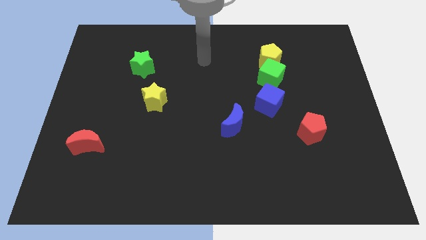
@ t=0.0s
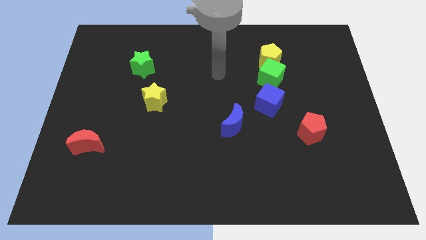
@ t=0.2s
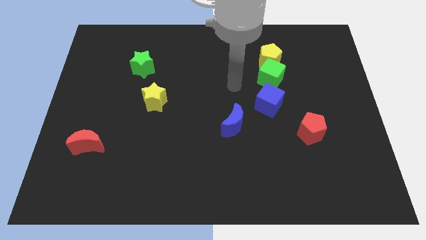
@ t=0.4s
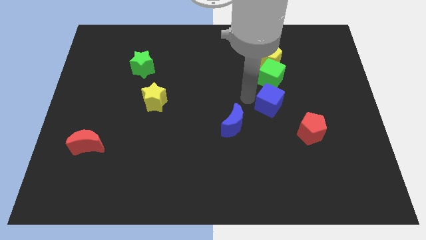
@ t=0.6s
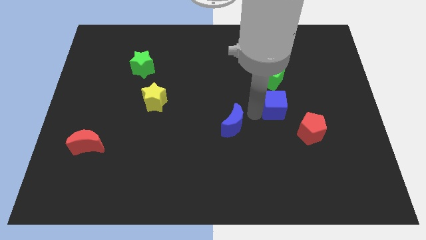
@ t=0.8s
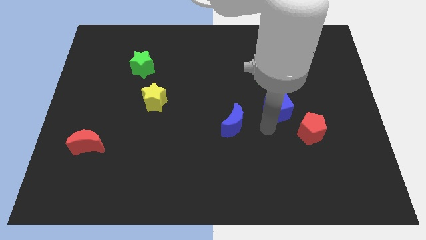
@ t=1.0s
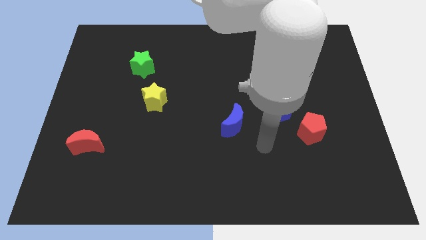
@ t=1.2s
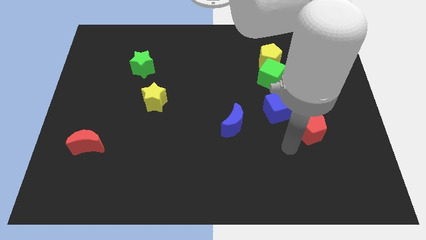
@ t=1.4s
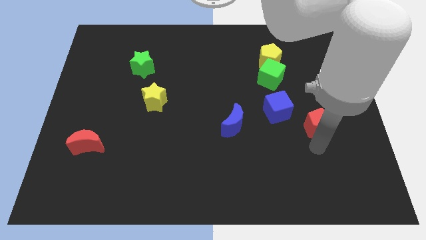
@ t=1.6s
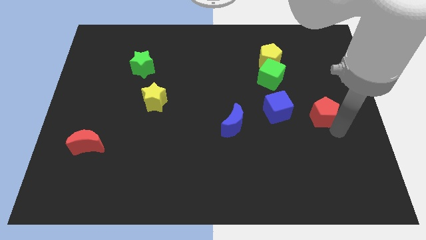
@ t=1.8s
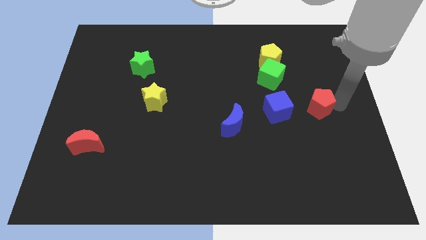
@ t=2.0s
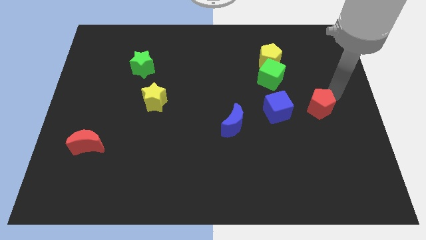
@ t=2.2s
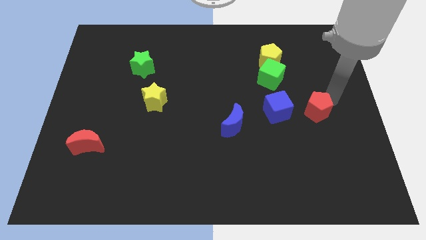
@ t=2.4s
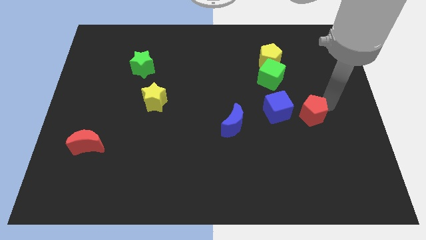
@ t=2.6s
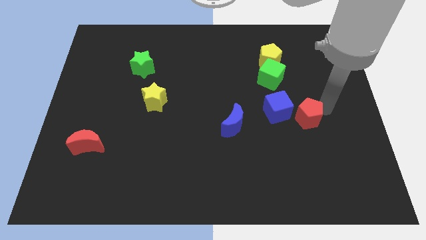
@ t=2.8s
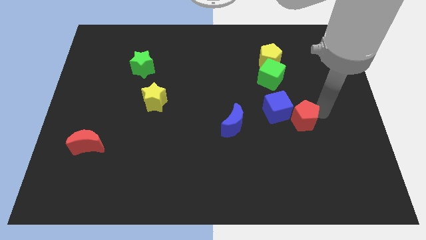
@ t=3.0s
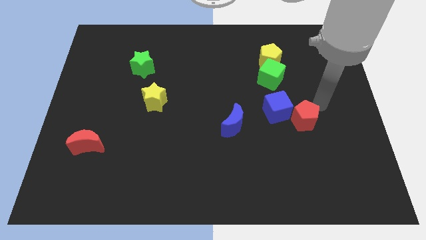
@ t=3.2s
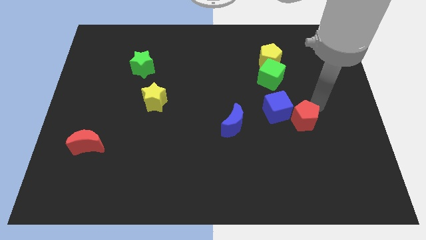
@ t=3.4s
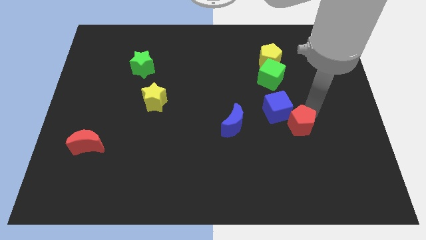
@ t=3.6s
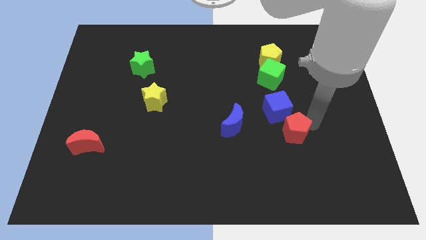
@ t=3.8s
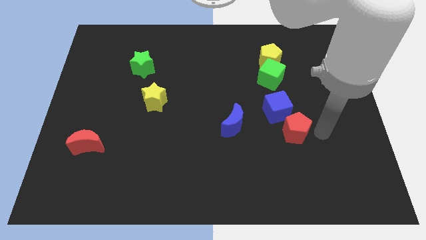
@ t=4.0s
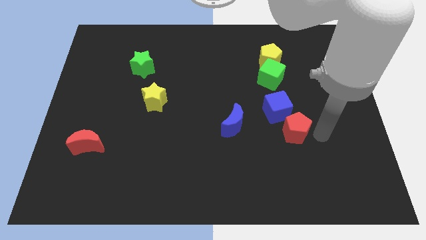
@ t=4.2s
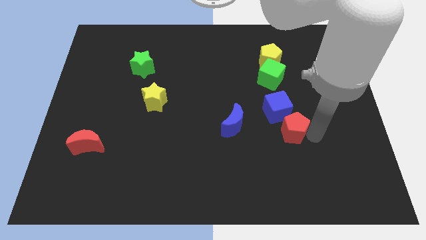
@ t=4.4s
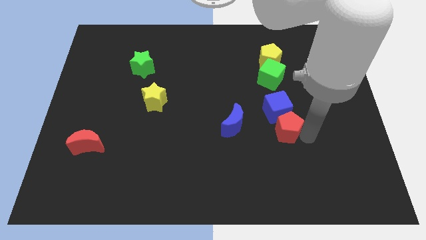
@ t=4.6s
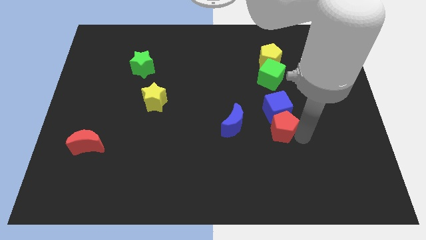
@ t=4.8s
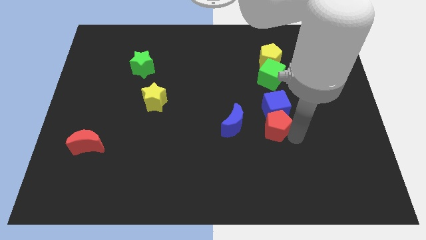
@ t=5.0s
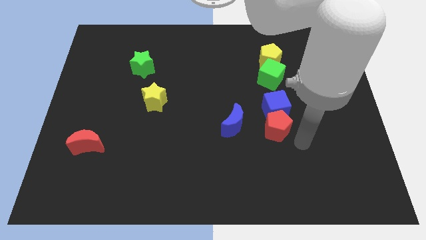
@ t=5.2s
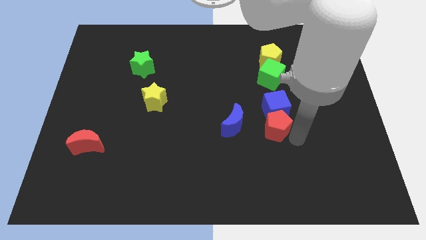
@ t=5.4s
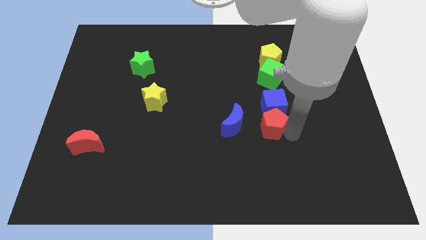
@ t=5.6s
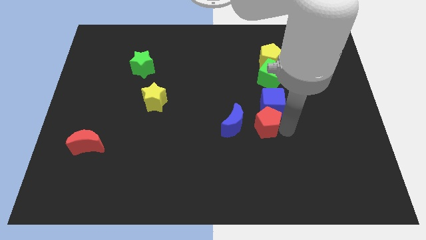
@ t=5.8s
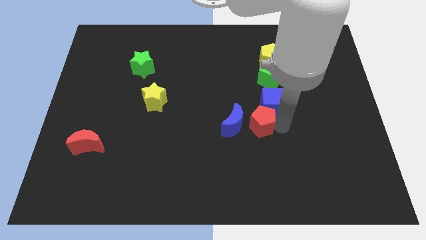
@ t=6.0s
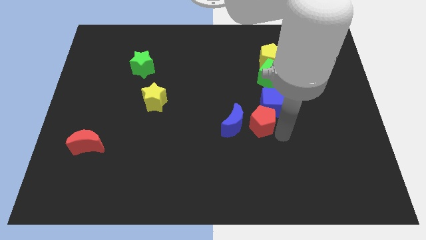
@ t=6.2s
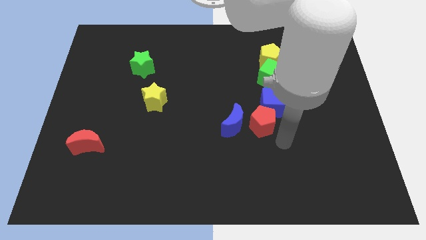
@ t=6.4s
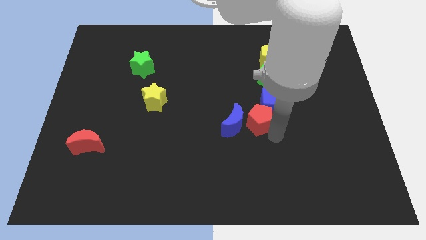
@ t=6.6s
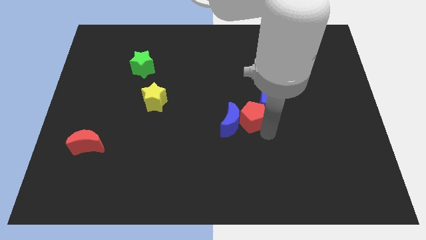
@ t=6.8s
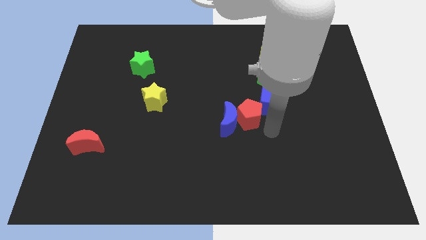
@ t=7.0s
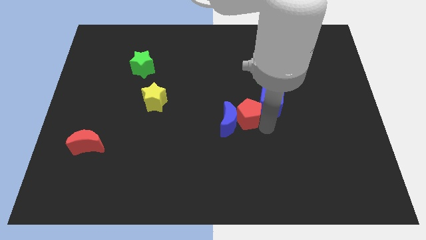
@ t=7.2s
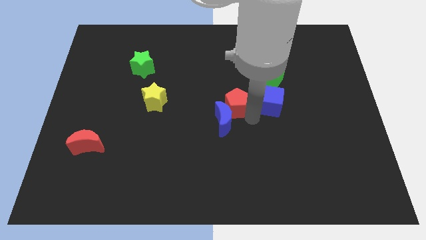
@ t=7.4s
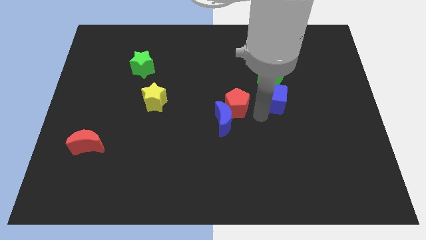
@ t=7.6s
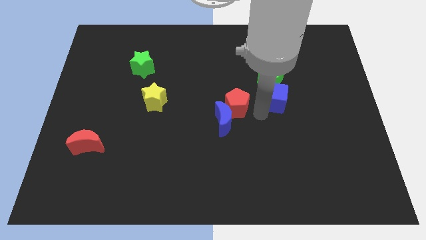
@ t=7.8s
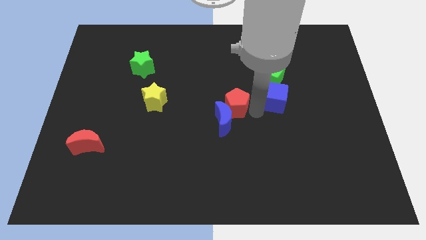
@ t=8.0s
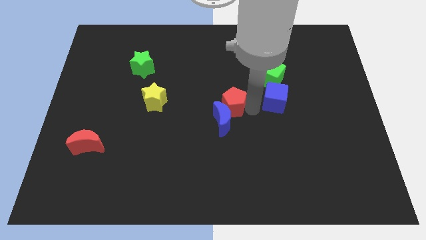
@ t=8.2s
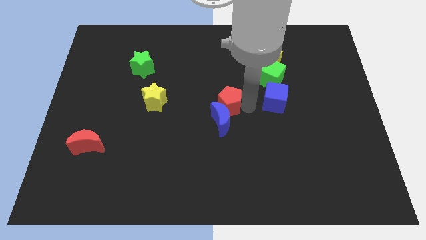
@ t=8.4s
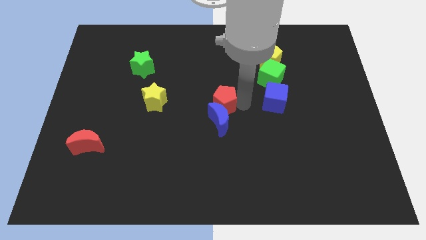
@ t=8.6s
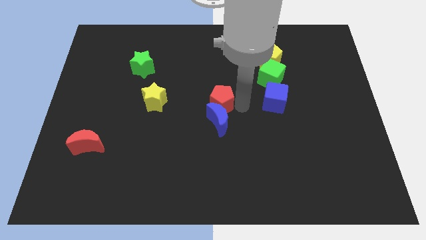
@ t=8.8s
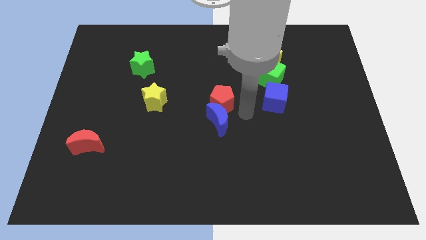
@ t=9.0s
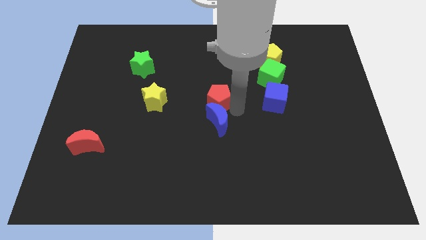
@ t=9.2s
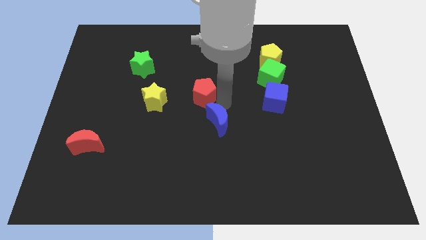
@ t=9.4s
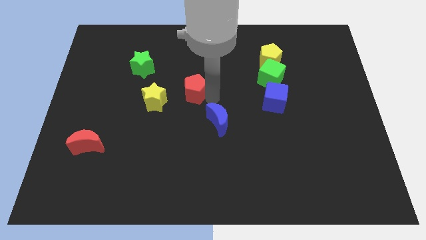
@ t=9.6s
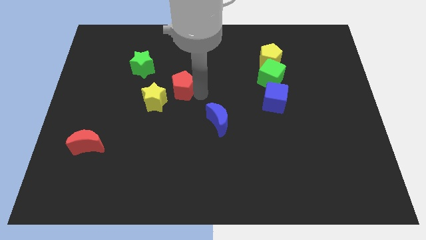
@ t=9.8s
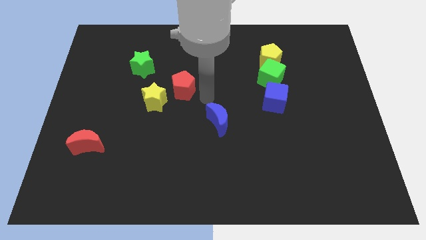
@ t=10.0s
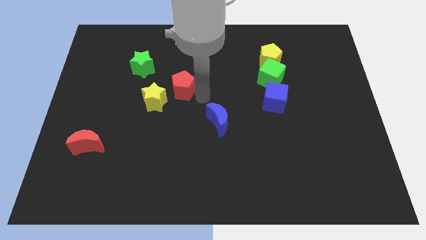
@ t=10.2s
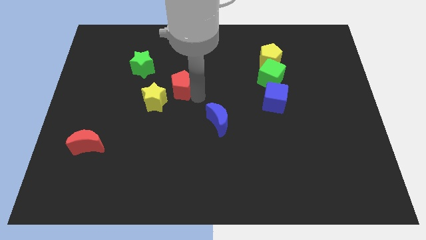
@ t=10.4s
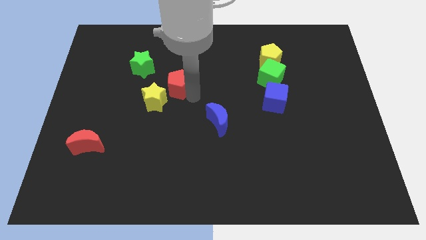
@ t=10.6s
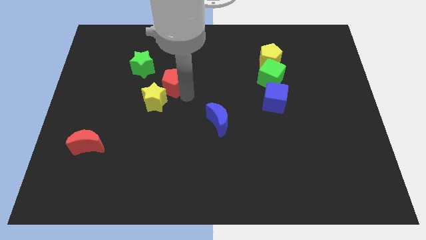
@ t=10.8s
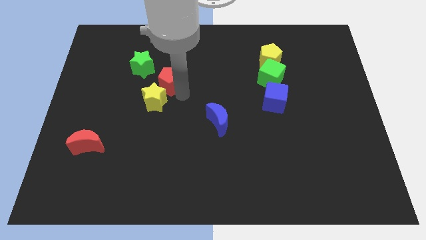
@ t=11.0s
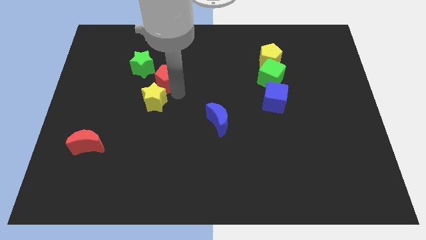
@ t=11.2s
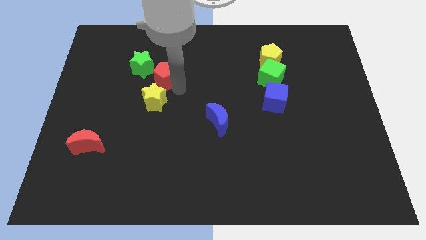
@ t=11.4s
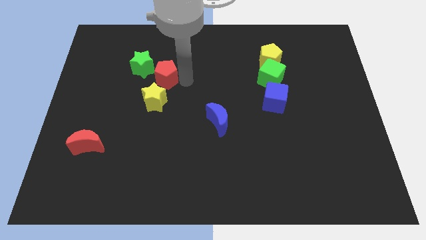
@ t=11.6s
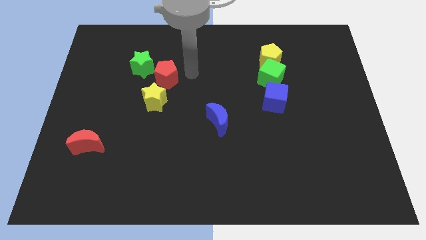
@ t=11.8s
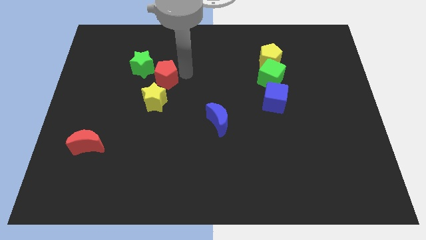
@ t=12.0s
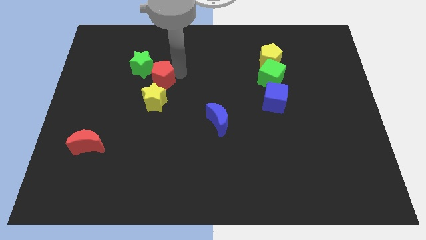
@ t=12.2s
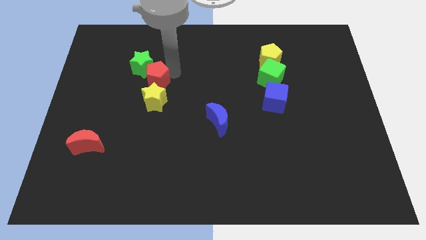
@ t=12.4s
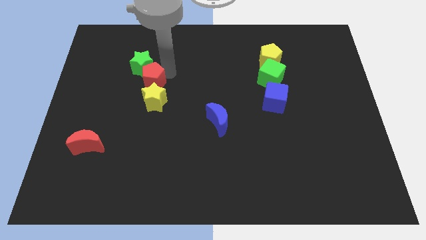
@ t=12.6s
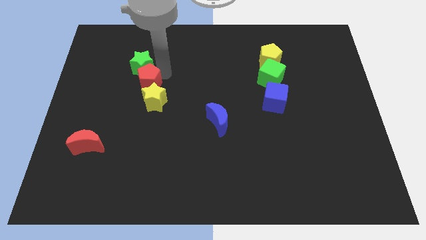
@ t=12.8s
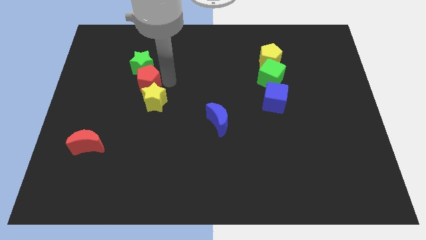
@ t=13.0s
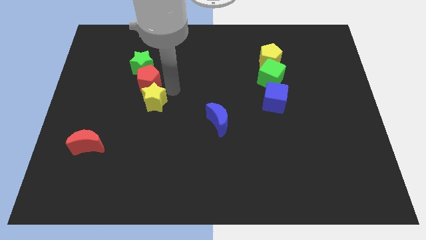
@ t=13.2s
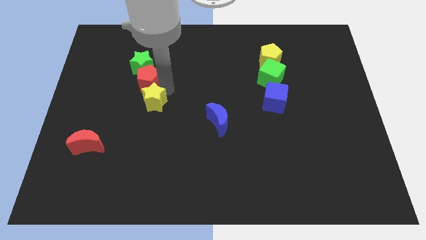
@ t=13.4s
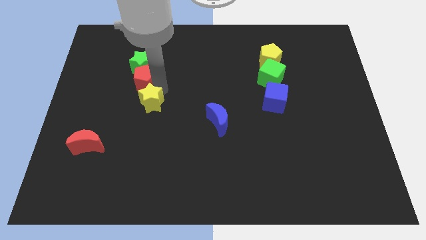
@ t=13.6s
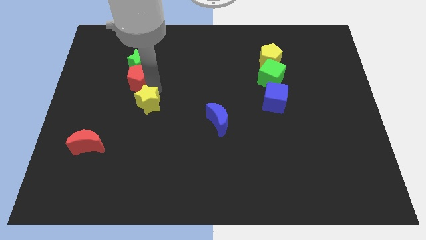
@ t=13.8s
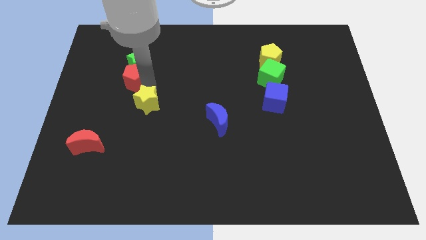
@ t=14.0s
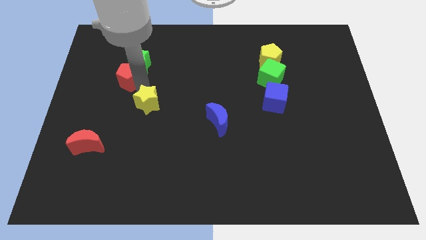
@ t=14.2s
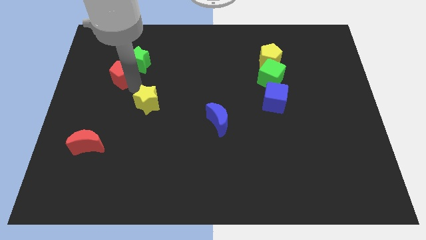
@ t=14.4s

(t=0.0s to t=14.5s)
put the red pentagon just left of the green star

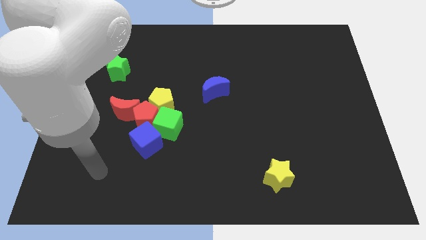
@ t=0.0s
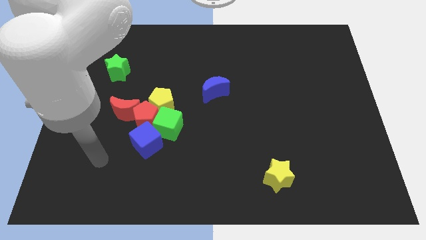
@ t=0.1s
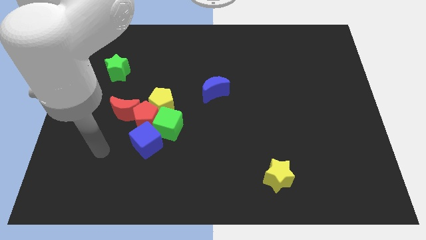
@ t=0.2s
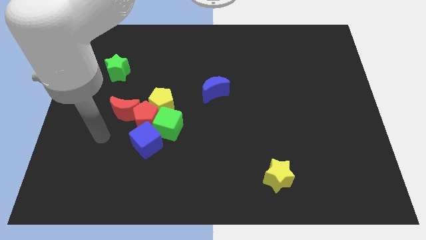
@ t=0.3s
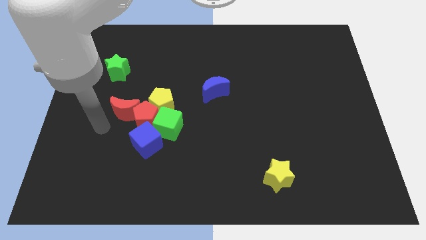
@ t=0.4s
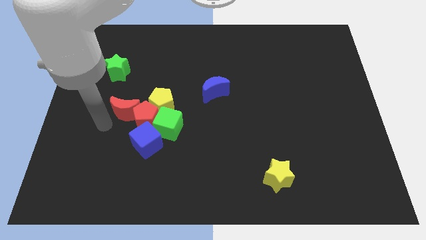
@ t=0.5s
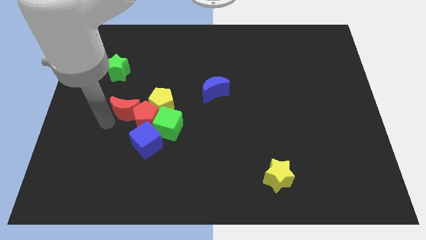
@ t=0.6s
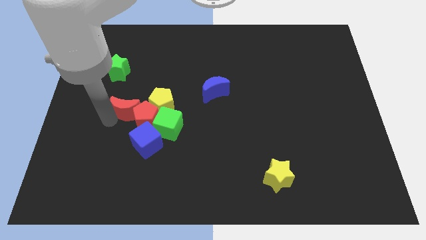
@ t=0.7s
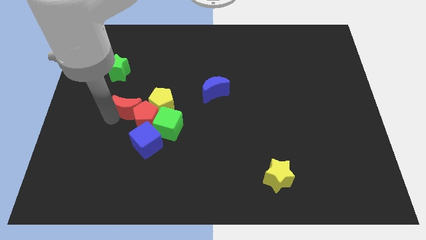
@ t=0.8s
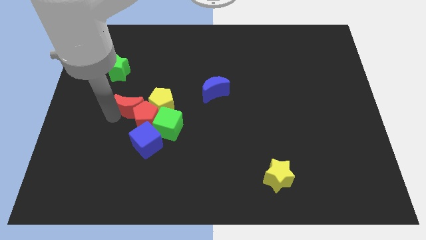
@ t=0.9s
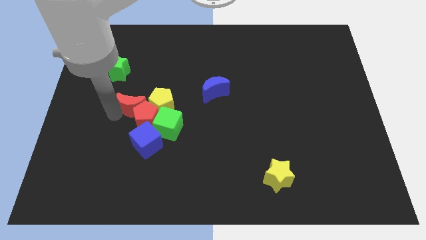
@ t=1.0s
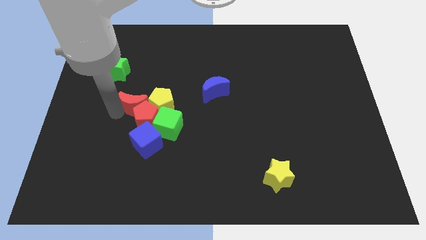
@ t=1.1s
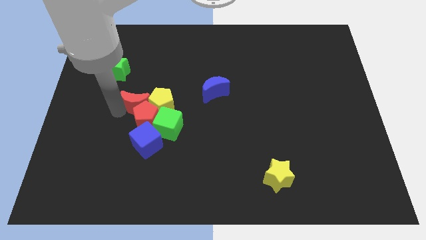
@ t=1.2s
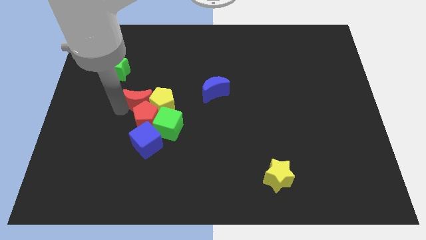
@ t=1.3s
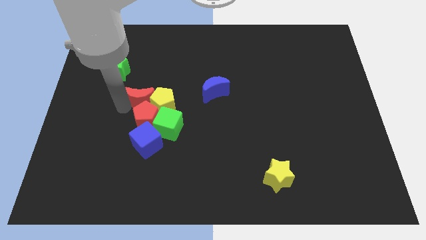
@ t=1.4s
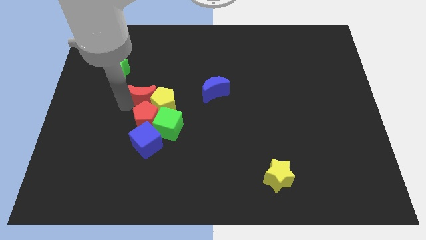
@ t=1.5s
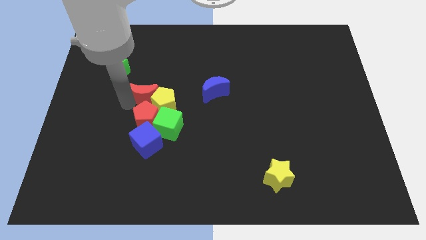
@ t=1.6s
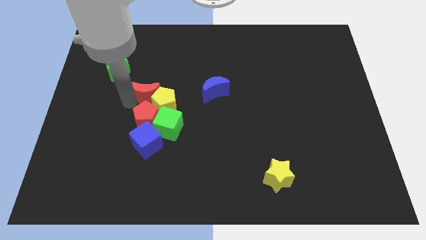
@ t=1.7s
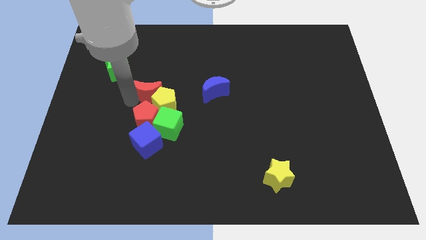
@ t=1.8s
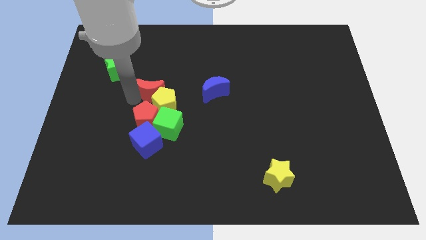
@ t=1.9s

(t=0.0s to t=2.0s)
move the red moon to the top side of the green cube
